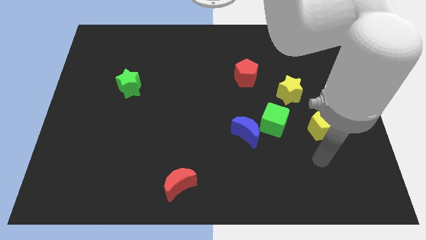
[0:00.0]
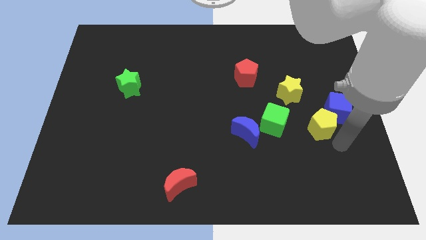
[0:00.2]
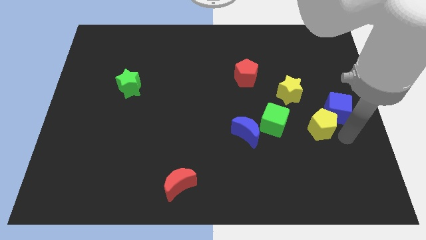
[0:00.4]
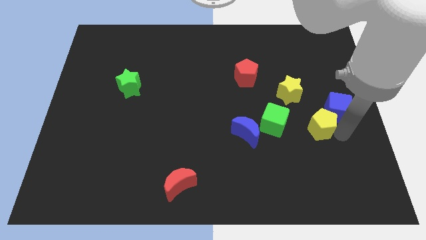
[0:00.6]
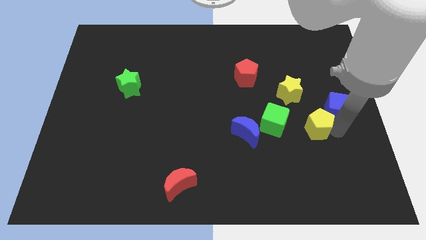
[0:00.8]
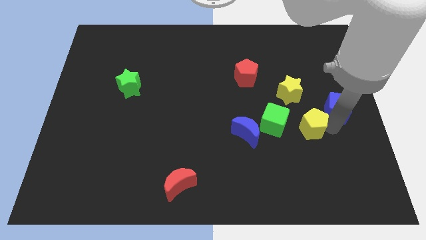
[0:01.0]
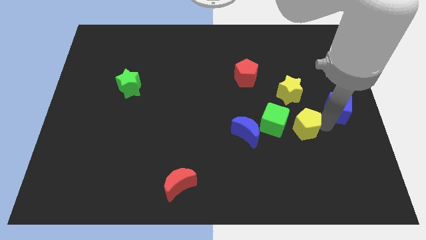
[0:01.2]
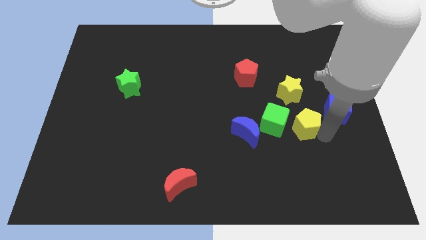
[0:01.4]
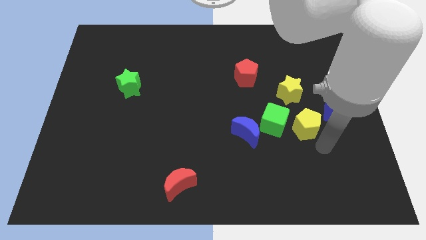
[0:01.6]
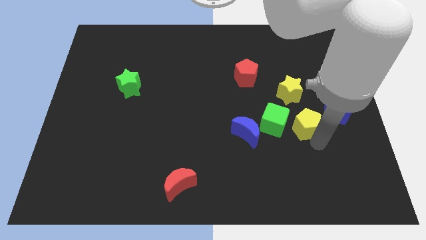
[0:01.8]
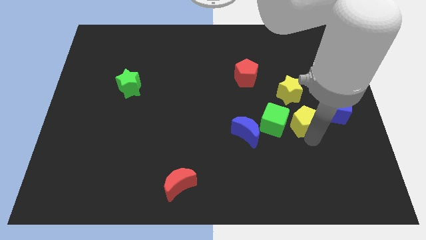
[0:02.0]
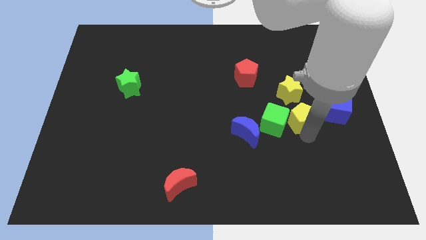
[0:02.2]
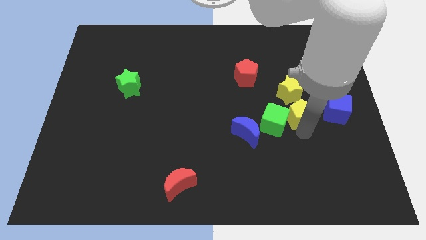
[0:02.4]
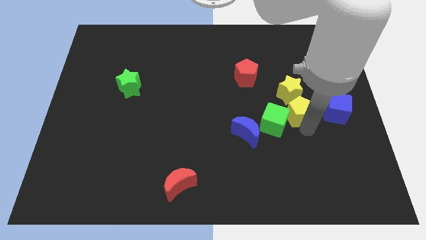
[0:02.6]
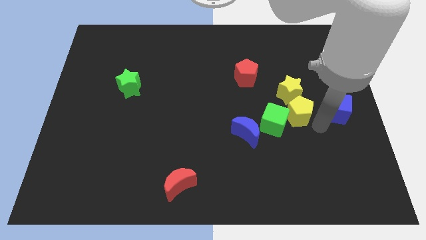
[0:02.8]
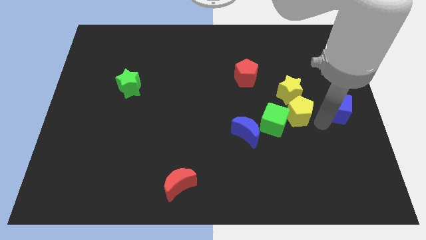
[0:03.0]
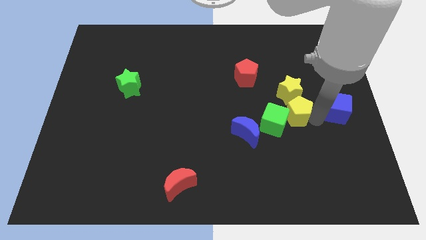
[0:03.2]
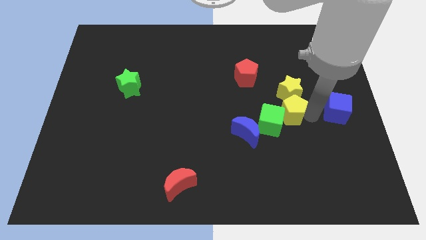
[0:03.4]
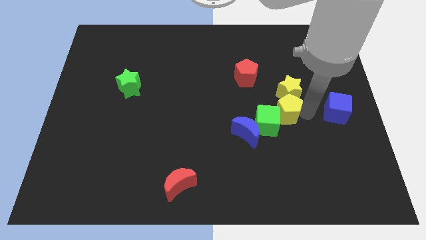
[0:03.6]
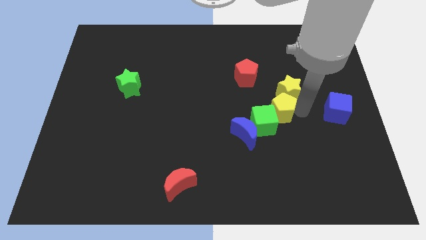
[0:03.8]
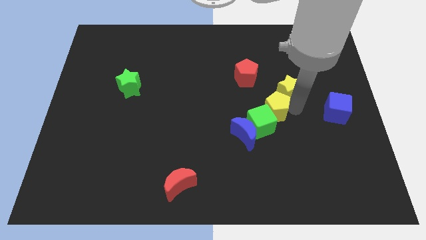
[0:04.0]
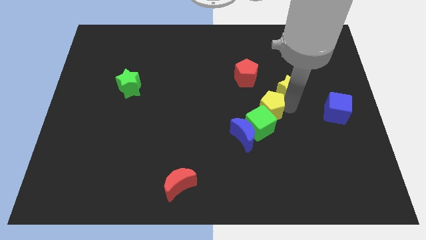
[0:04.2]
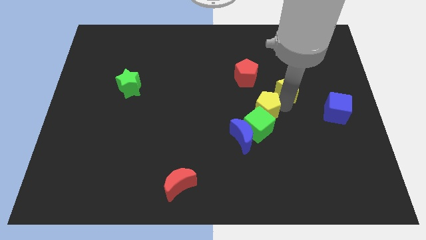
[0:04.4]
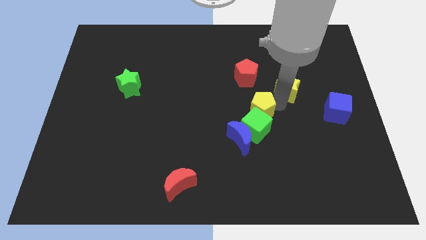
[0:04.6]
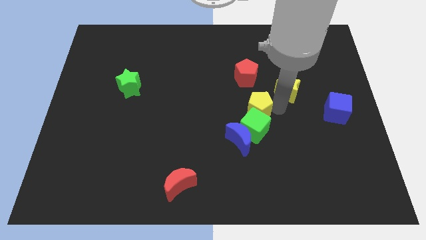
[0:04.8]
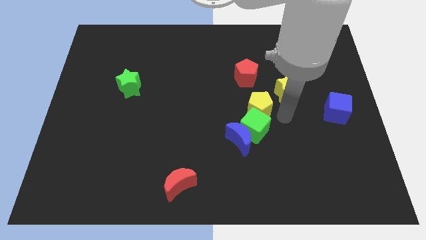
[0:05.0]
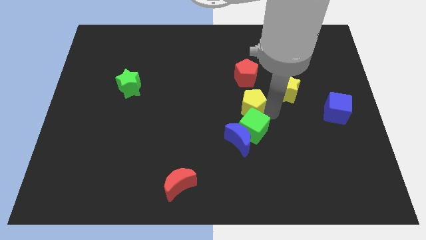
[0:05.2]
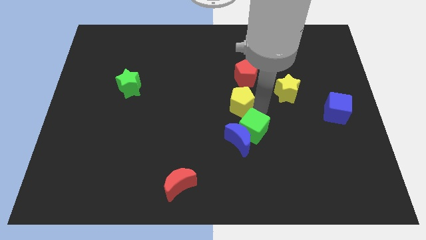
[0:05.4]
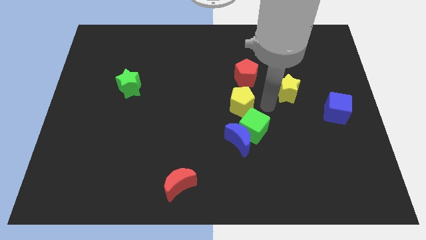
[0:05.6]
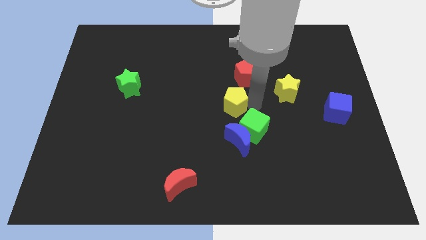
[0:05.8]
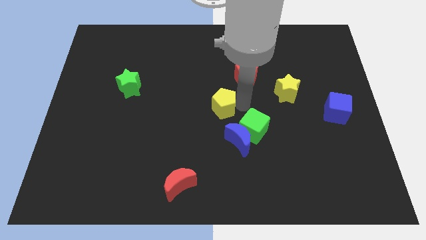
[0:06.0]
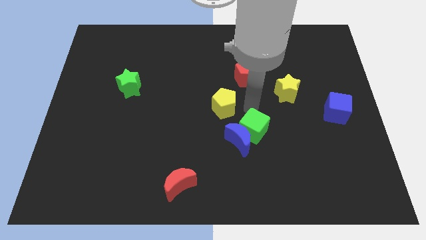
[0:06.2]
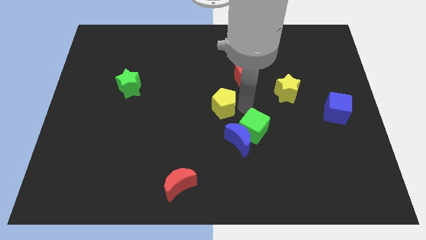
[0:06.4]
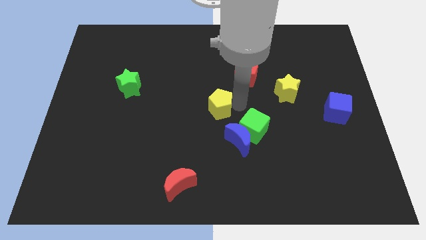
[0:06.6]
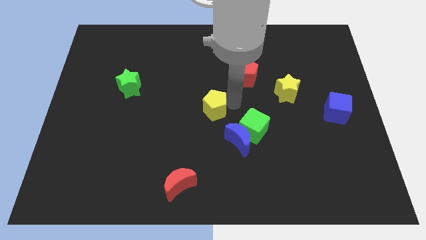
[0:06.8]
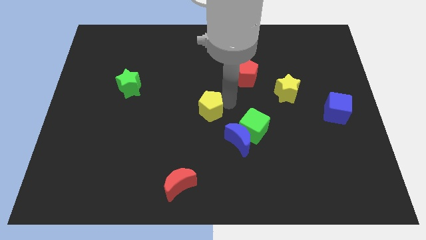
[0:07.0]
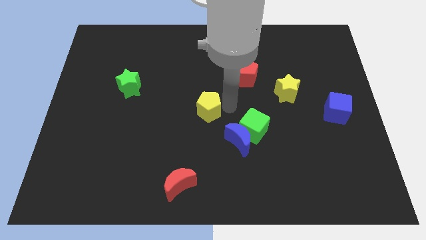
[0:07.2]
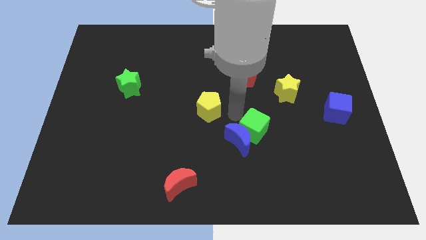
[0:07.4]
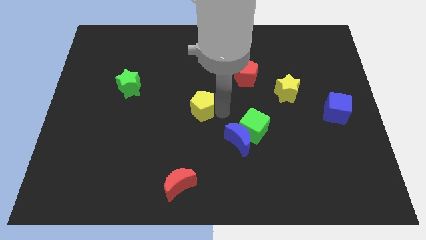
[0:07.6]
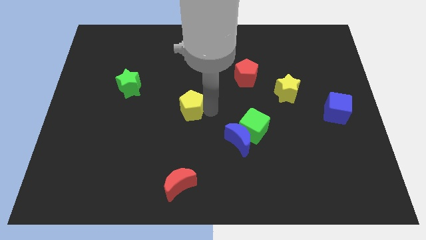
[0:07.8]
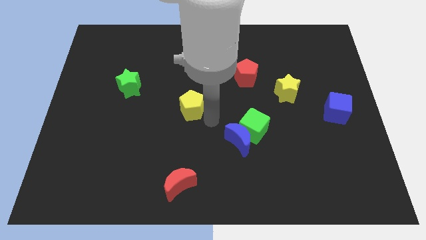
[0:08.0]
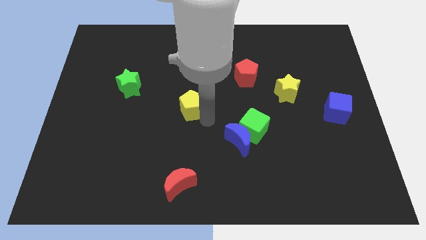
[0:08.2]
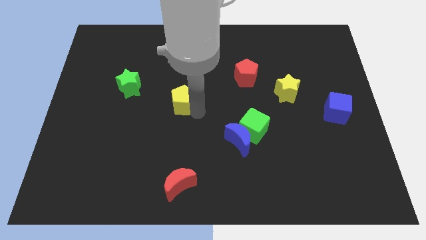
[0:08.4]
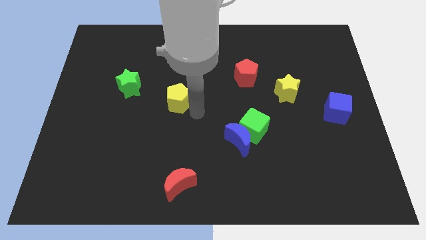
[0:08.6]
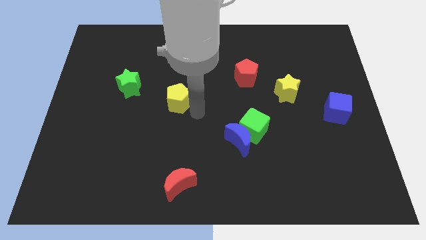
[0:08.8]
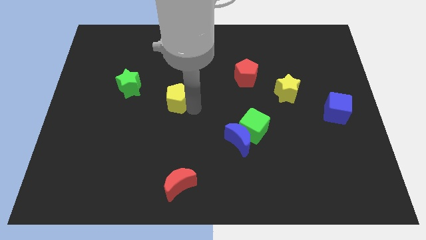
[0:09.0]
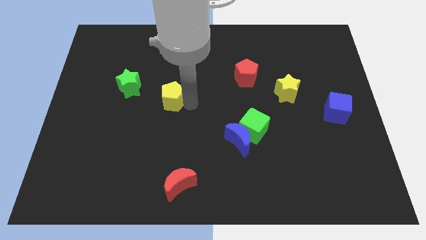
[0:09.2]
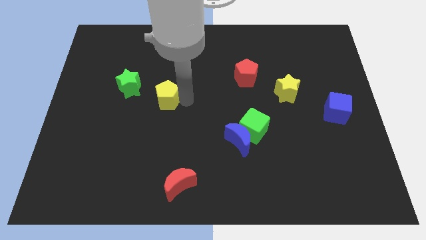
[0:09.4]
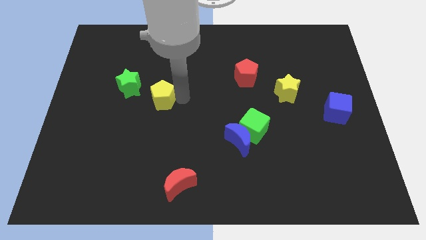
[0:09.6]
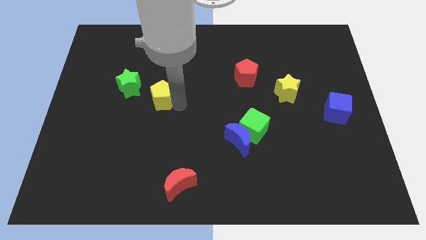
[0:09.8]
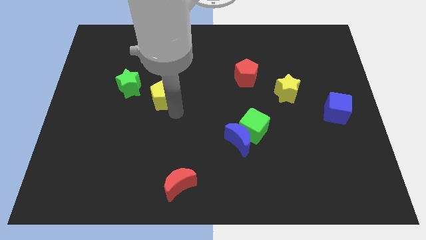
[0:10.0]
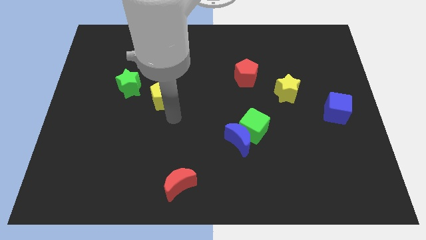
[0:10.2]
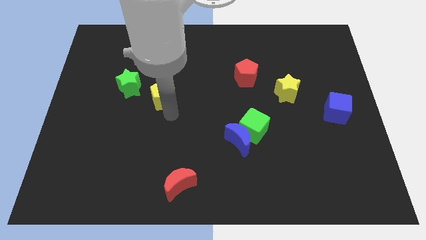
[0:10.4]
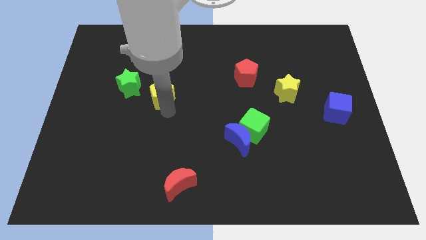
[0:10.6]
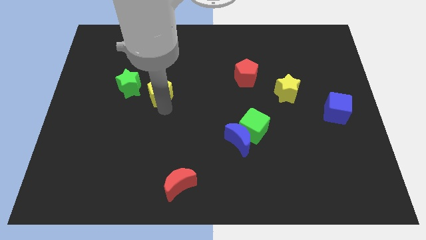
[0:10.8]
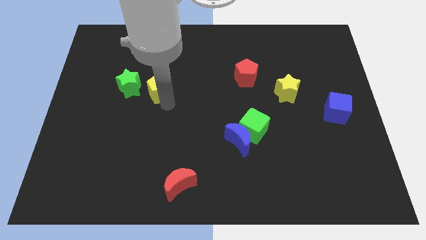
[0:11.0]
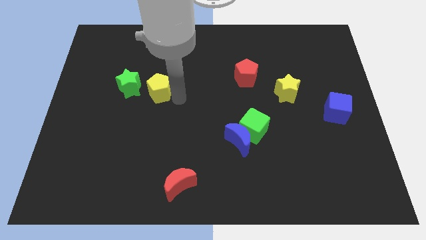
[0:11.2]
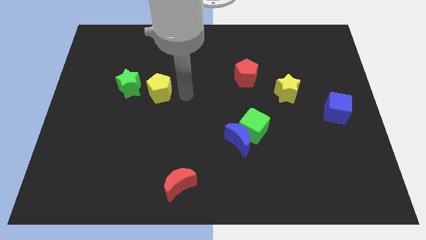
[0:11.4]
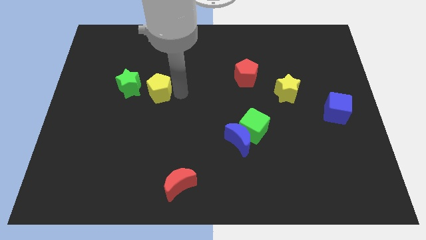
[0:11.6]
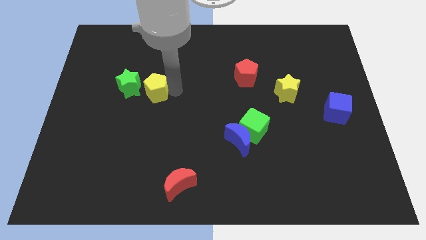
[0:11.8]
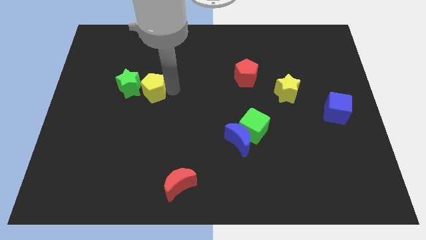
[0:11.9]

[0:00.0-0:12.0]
slide the yellow pentagon close to the green star

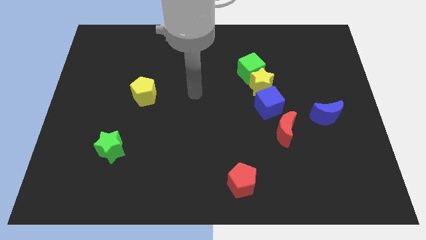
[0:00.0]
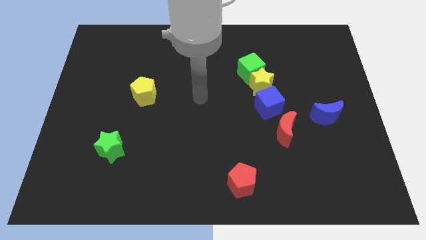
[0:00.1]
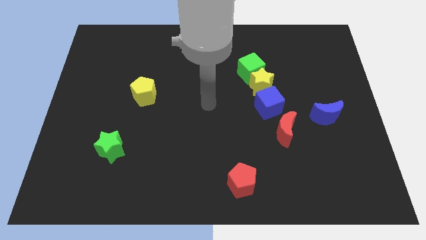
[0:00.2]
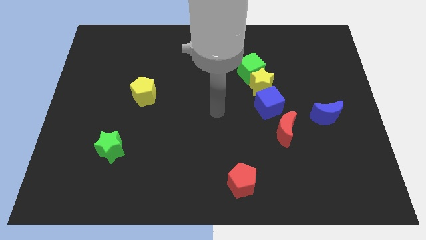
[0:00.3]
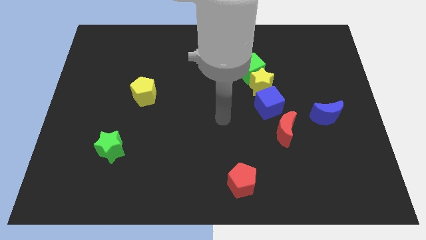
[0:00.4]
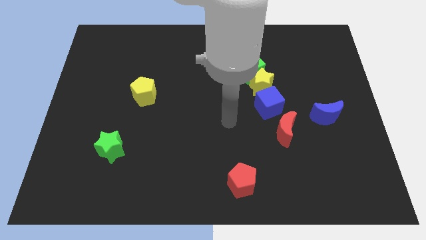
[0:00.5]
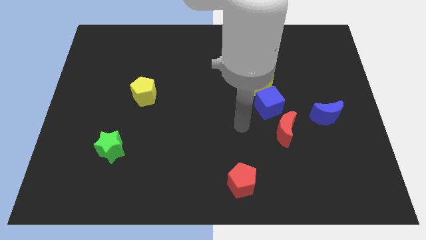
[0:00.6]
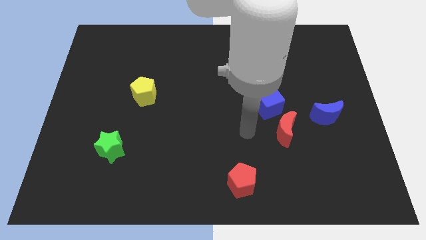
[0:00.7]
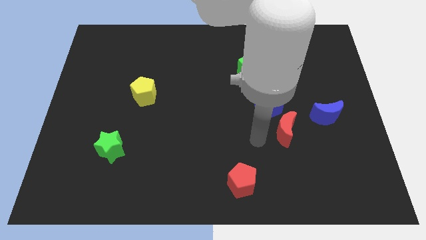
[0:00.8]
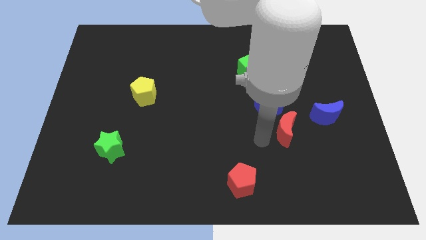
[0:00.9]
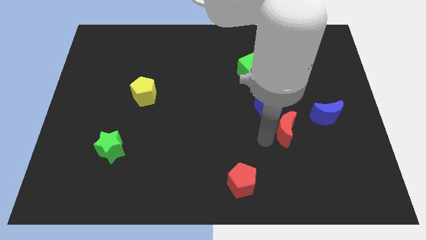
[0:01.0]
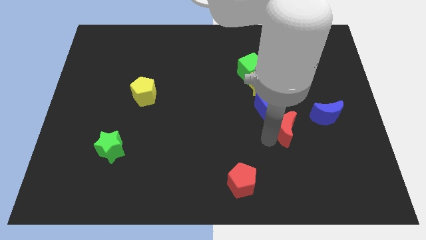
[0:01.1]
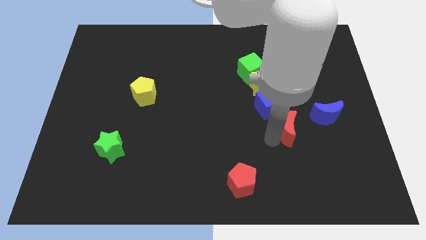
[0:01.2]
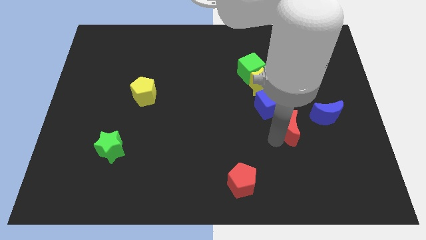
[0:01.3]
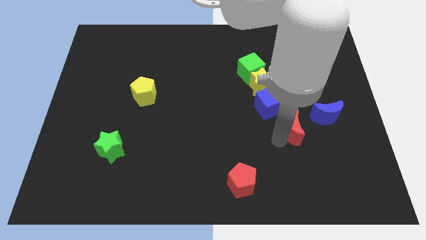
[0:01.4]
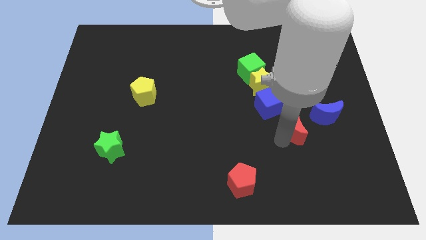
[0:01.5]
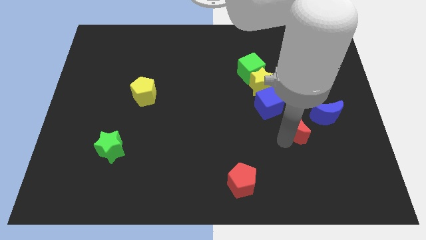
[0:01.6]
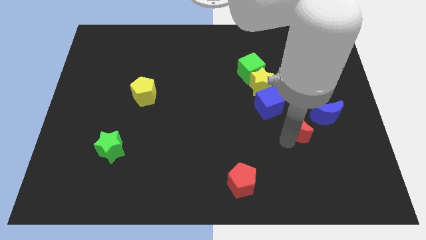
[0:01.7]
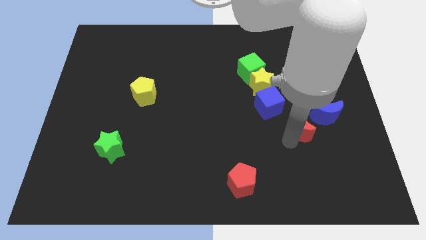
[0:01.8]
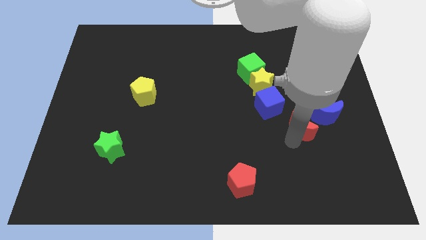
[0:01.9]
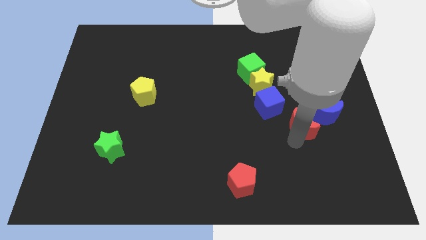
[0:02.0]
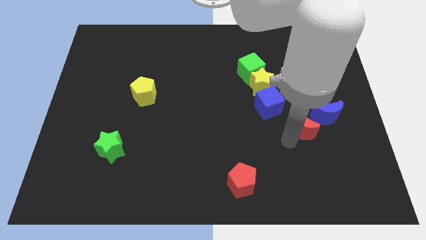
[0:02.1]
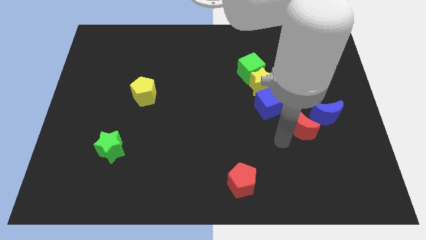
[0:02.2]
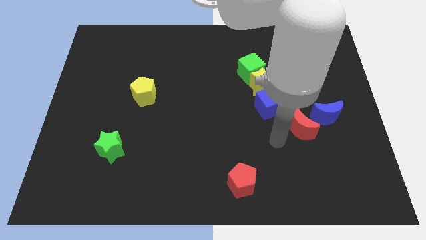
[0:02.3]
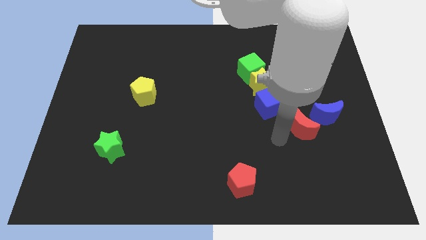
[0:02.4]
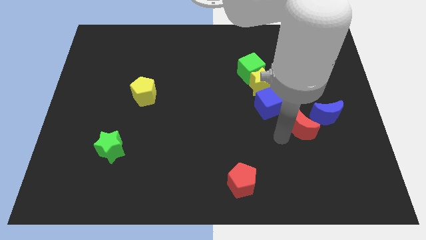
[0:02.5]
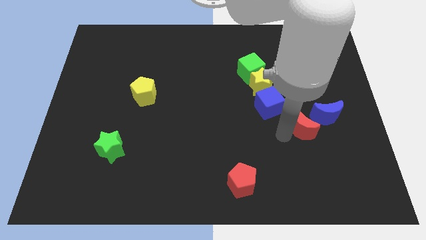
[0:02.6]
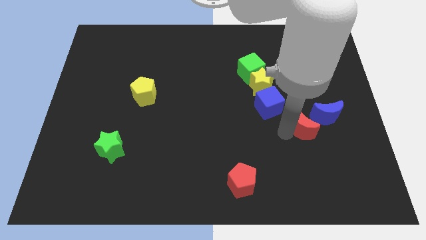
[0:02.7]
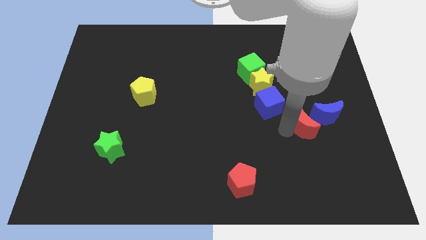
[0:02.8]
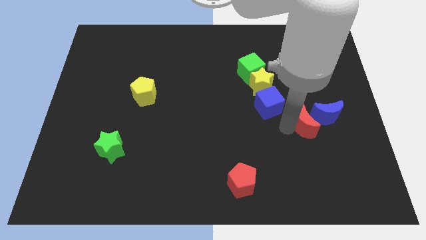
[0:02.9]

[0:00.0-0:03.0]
push the red moon next to the blue moon
